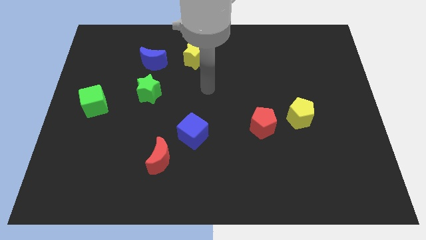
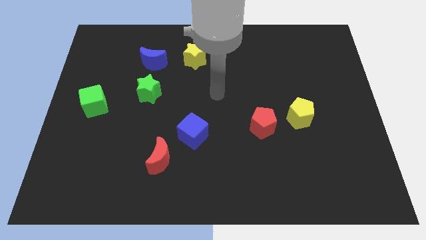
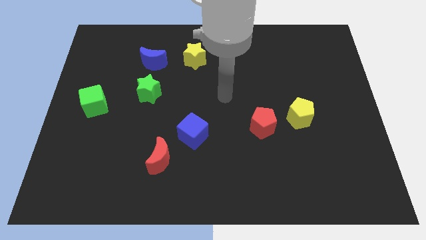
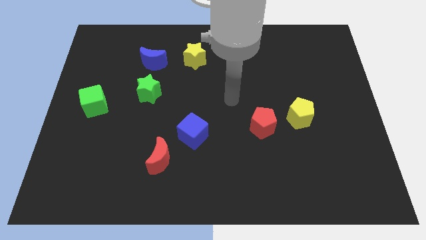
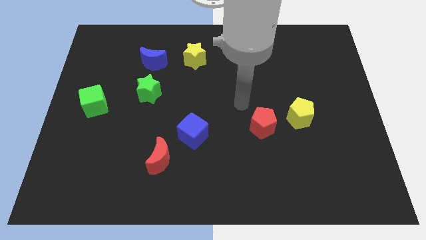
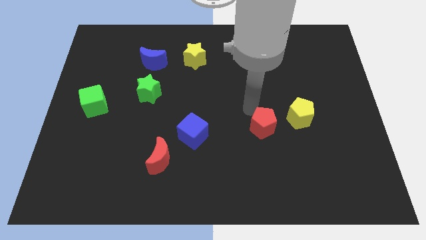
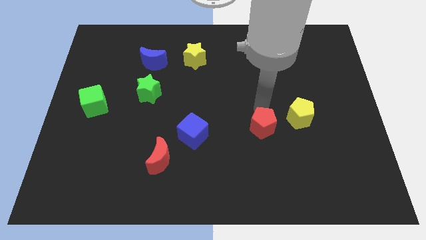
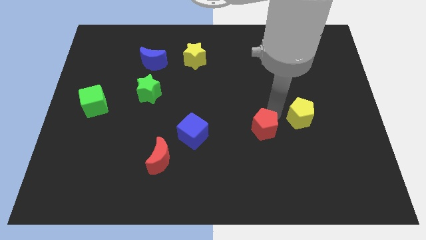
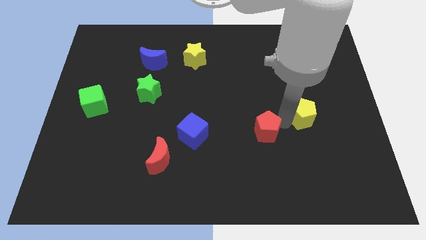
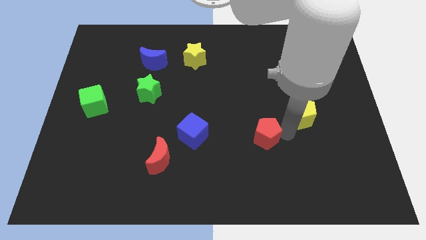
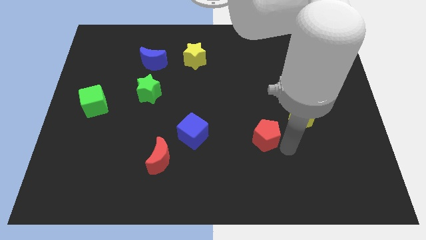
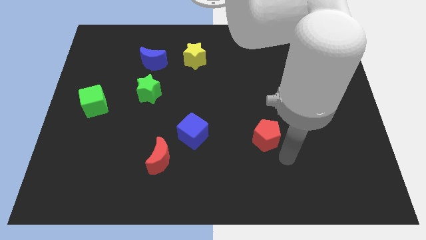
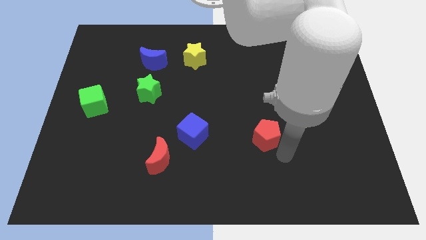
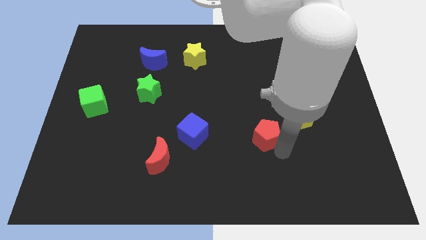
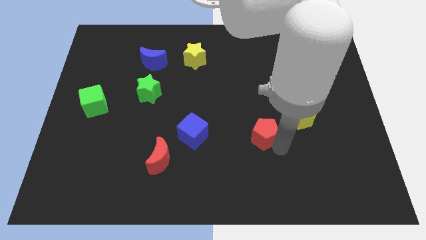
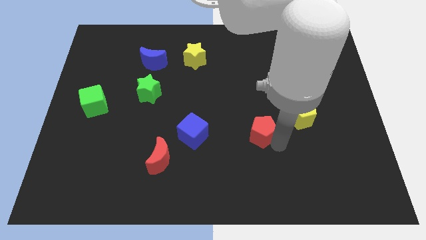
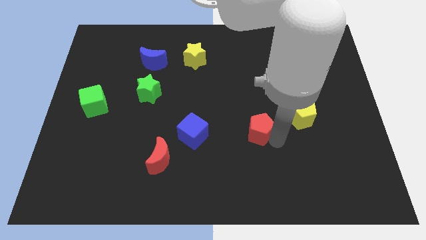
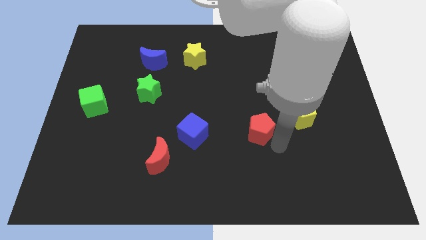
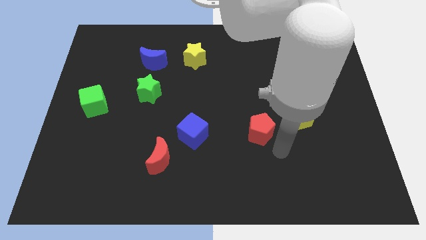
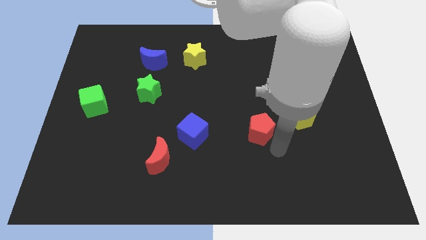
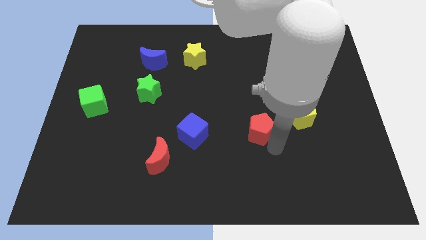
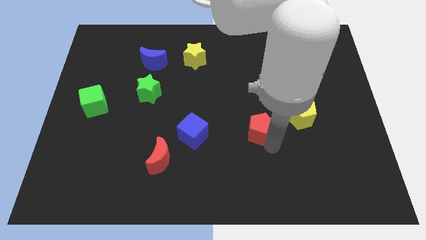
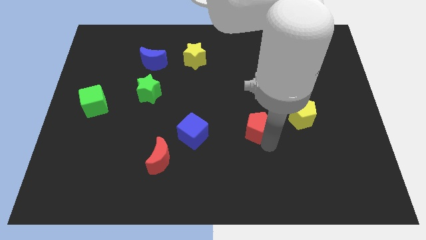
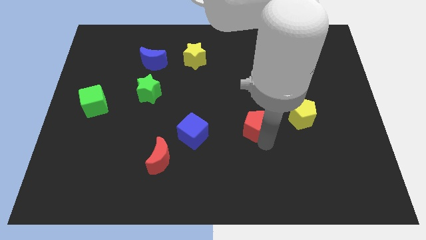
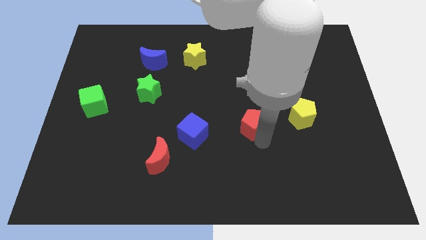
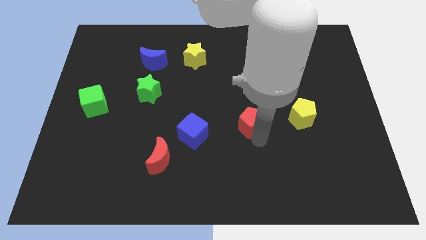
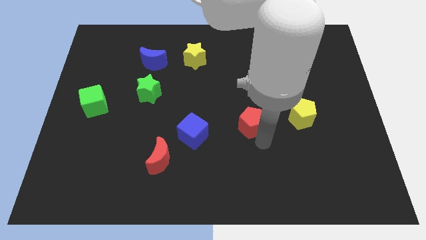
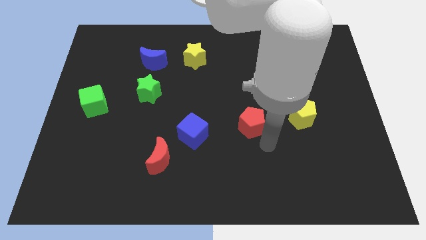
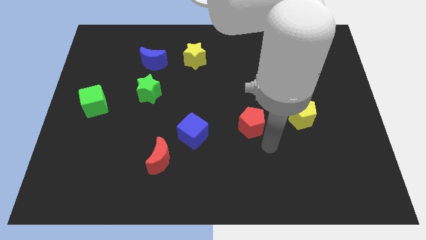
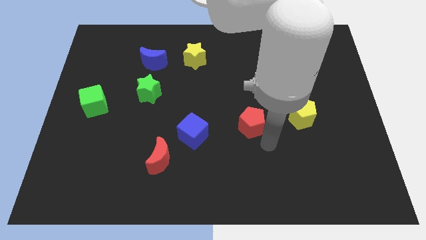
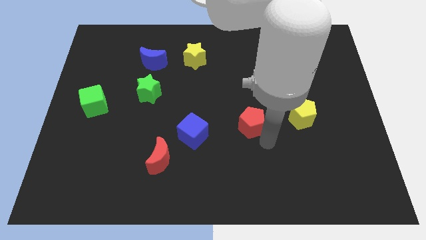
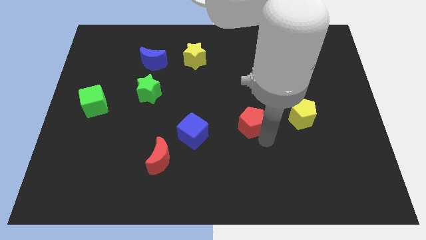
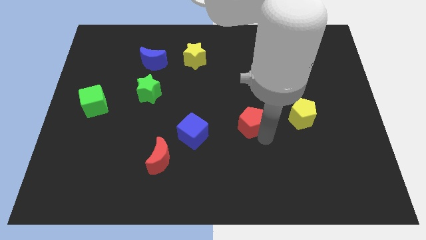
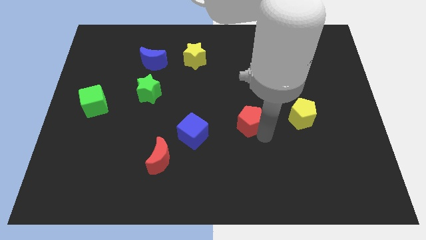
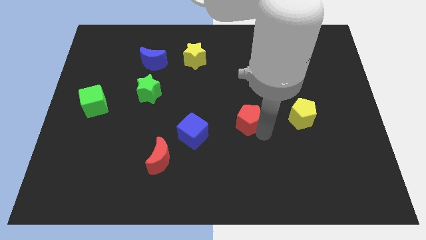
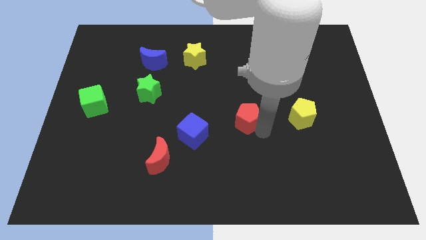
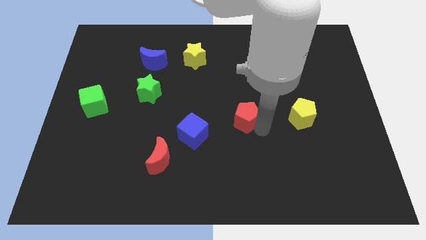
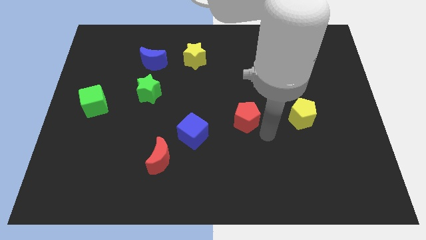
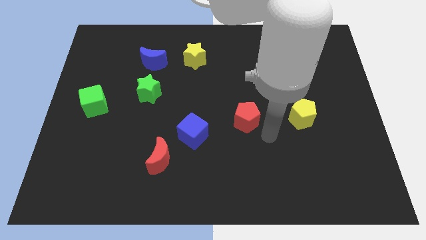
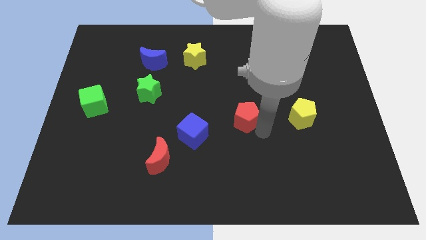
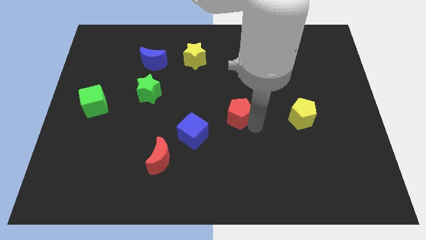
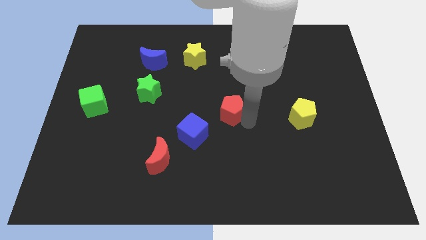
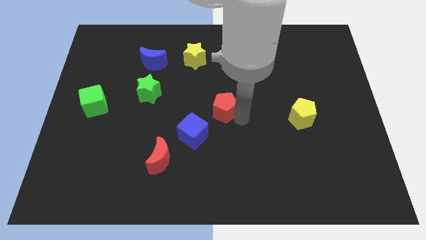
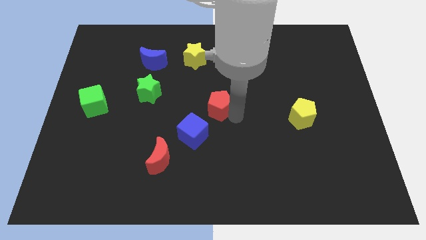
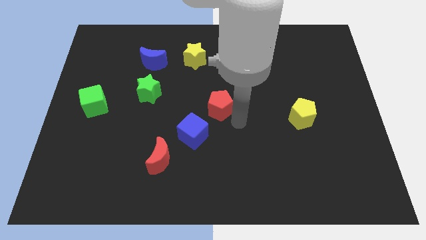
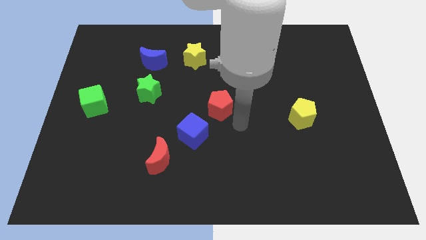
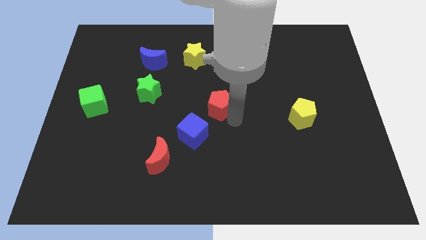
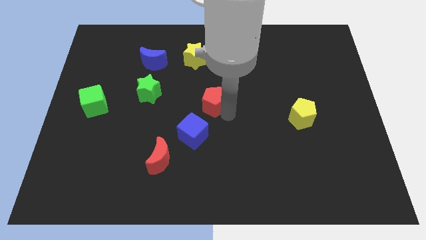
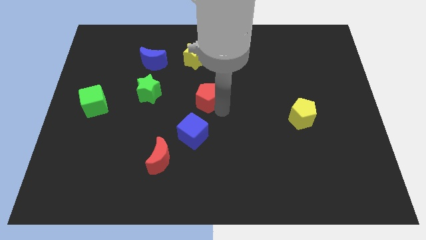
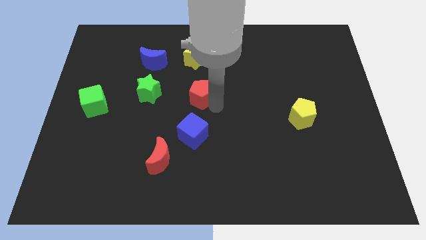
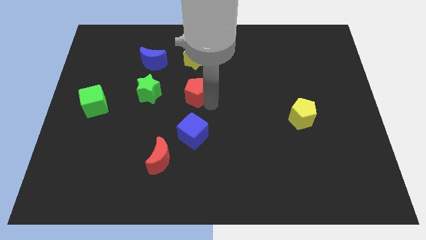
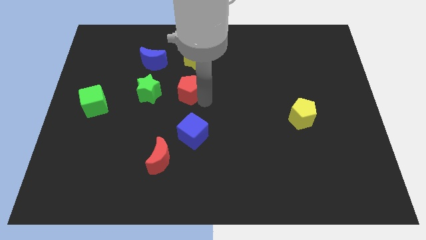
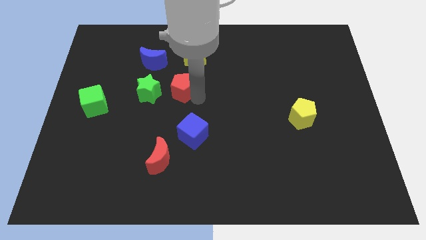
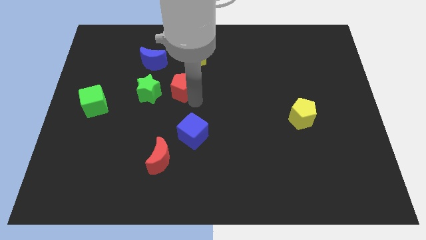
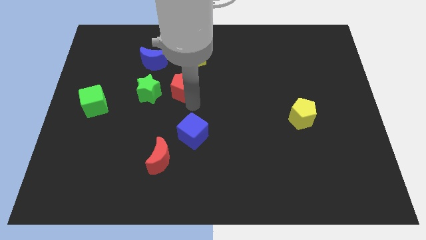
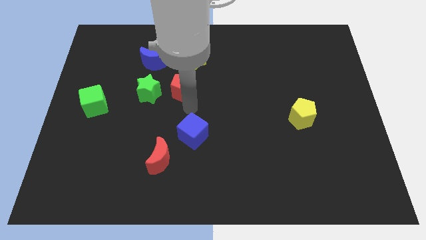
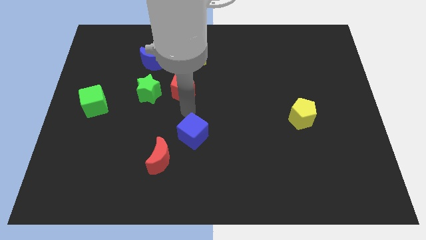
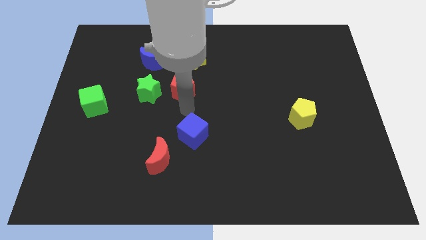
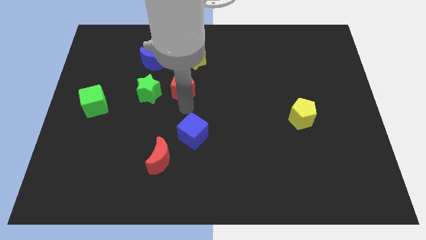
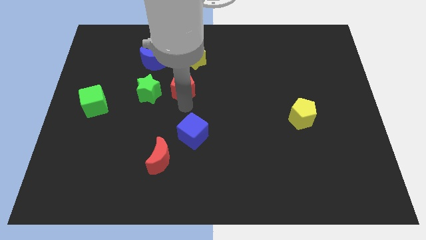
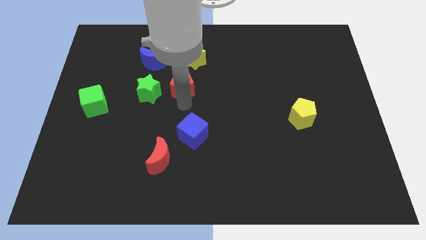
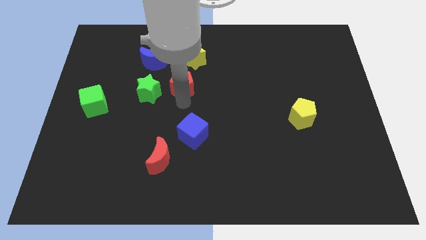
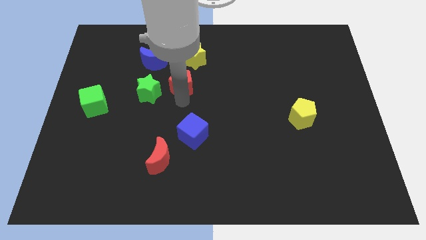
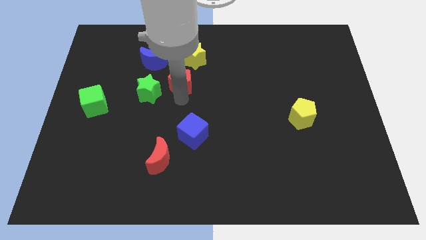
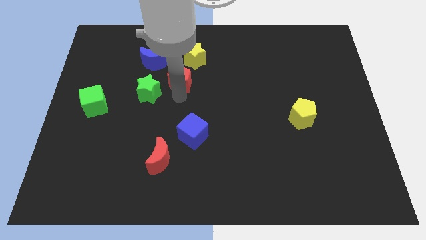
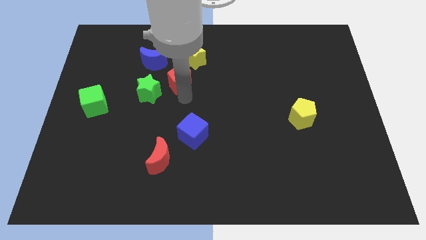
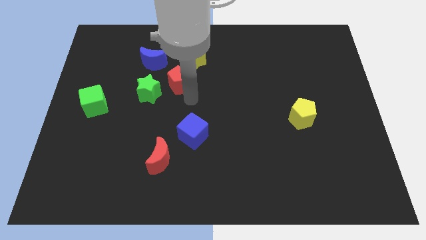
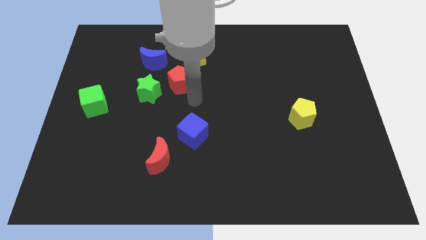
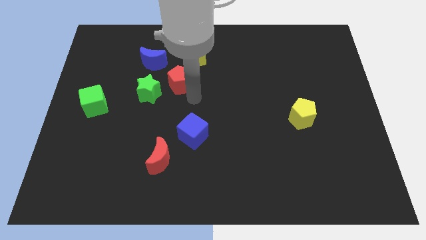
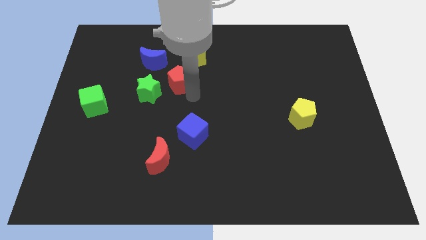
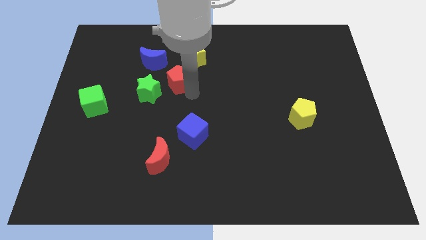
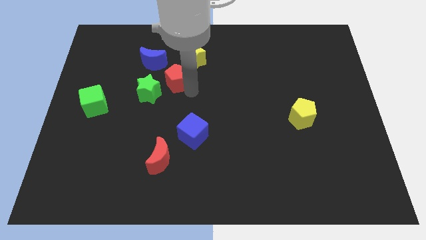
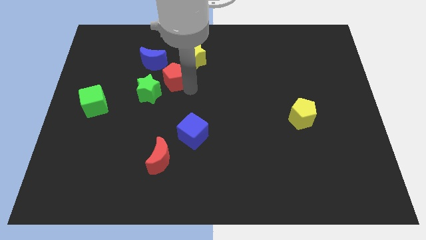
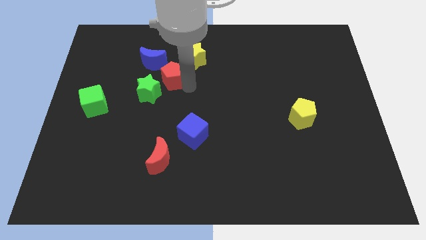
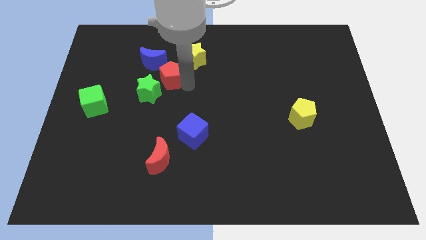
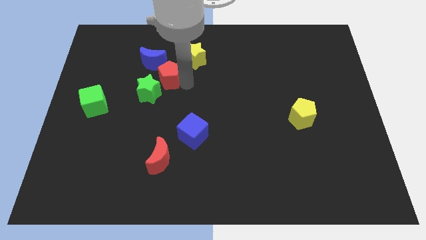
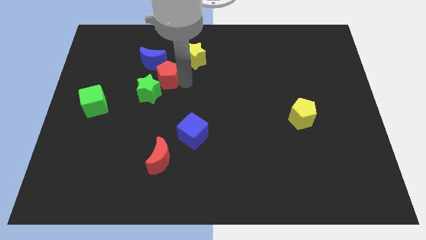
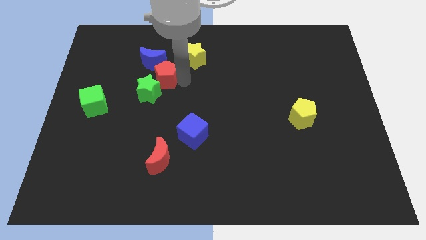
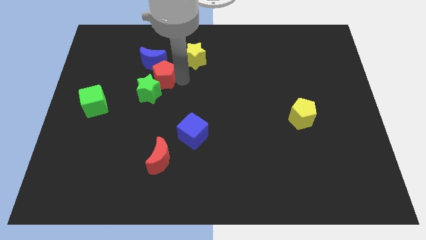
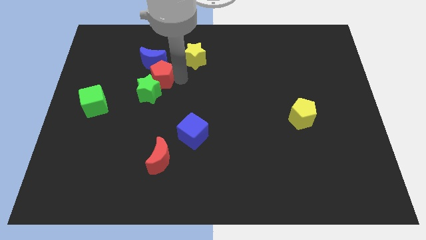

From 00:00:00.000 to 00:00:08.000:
push the red pentagon to the blue moon
